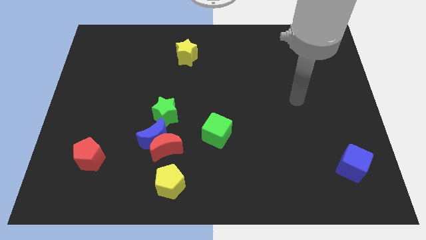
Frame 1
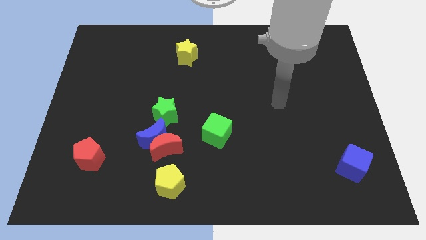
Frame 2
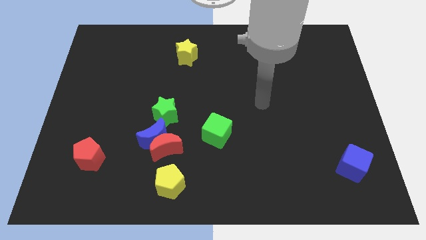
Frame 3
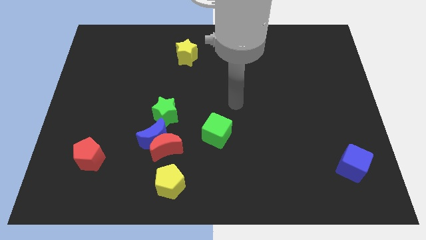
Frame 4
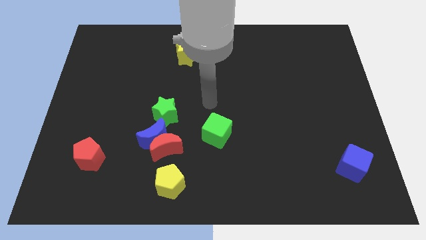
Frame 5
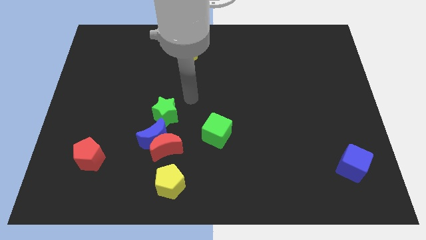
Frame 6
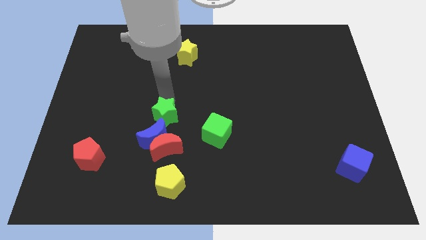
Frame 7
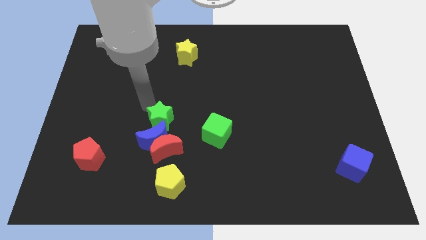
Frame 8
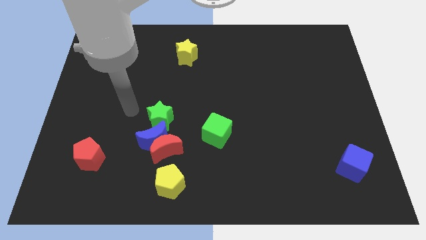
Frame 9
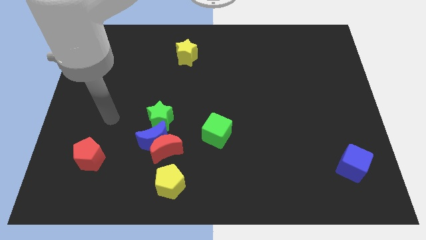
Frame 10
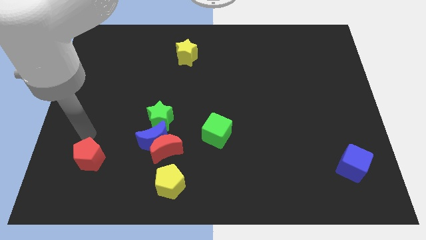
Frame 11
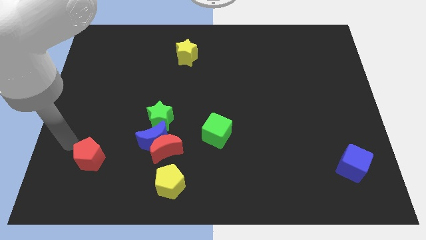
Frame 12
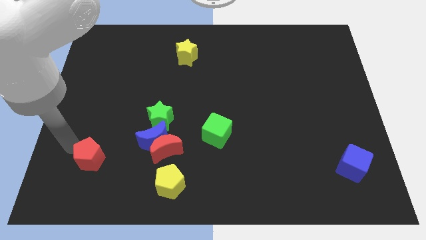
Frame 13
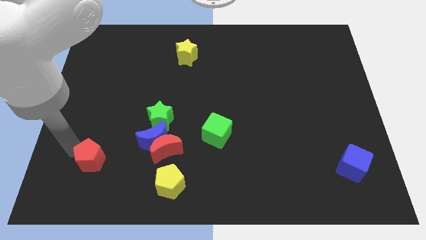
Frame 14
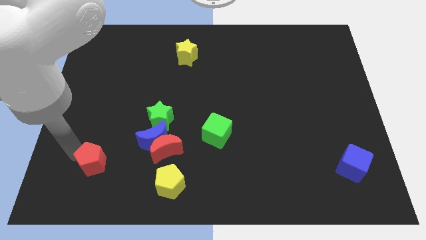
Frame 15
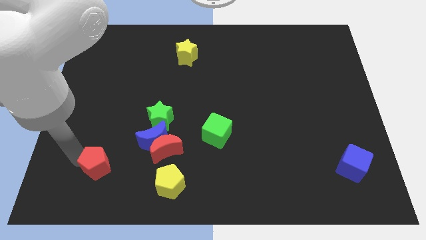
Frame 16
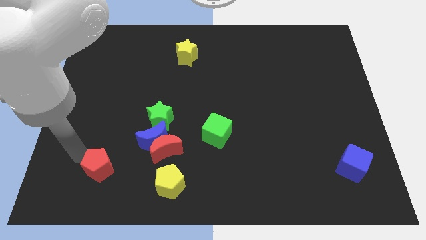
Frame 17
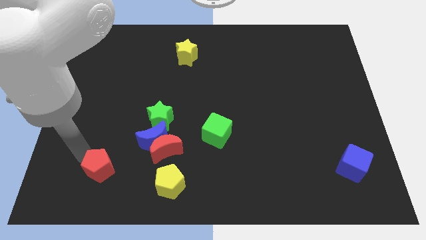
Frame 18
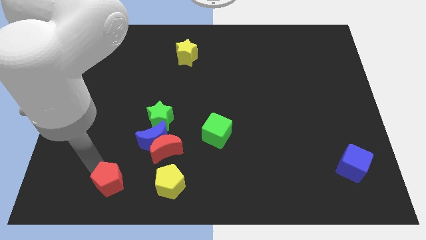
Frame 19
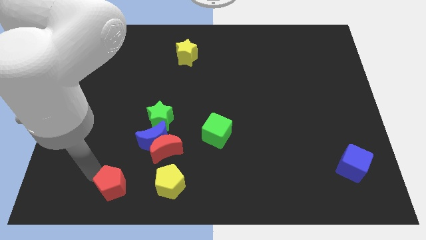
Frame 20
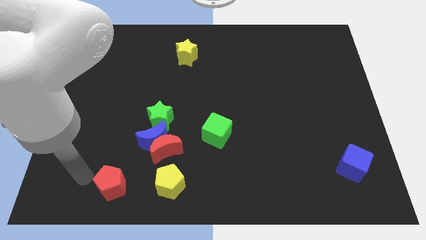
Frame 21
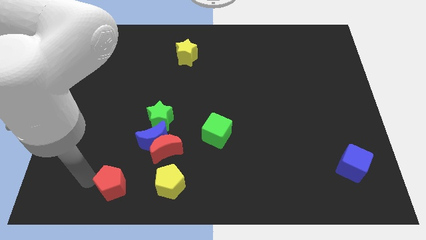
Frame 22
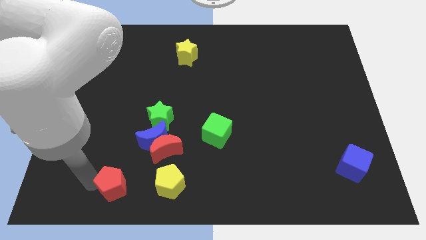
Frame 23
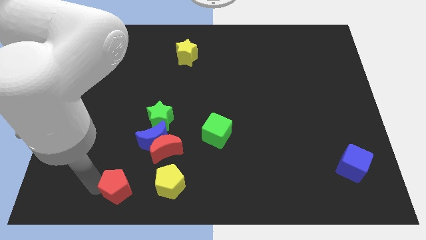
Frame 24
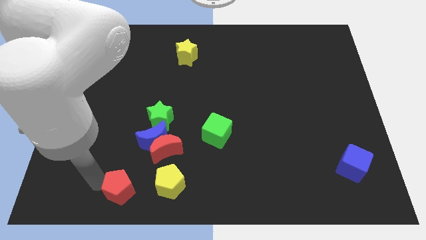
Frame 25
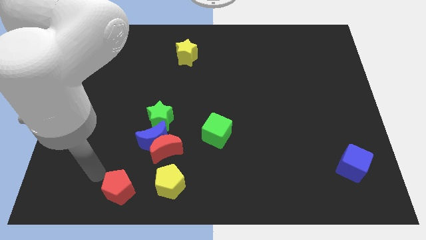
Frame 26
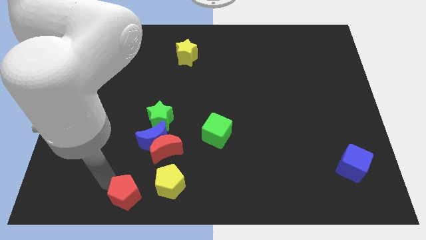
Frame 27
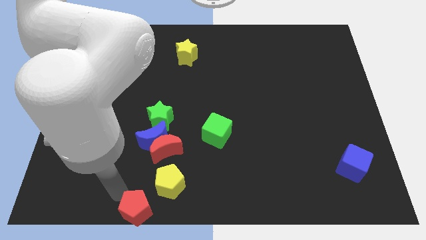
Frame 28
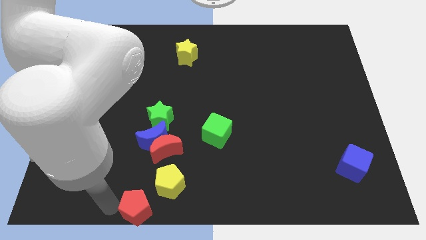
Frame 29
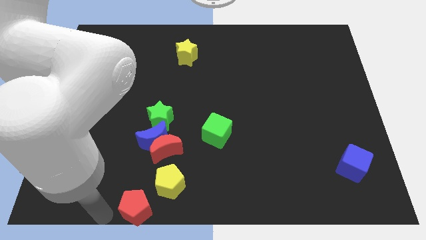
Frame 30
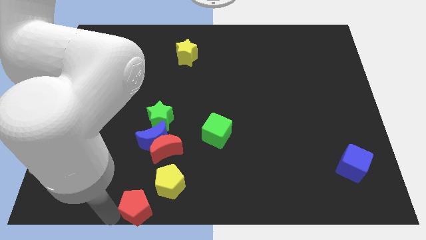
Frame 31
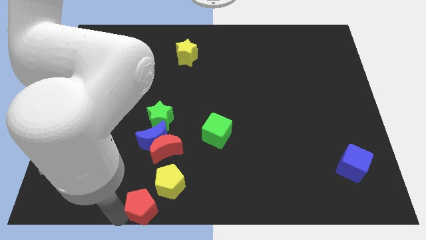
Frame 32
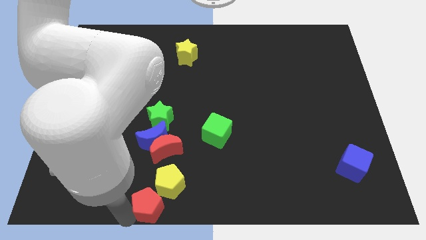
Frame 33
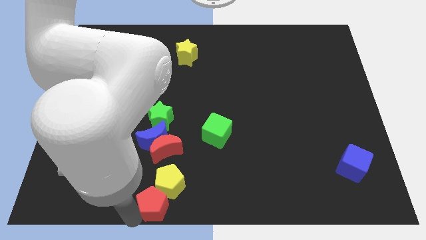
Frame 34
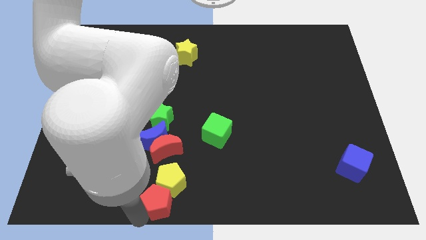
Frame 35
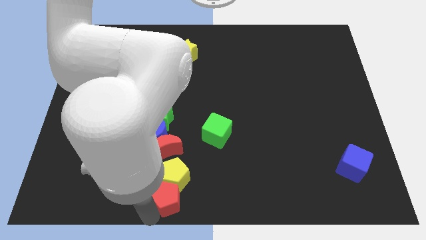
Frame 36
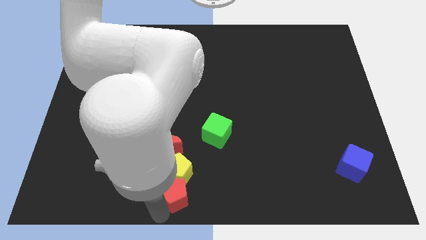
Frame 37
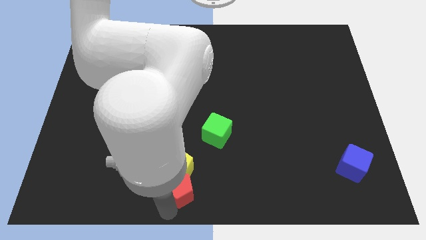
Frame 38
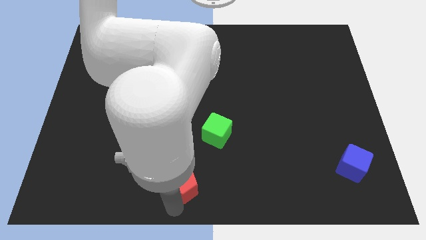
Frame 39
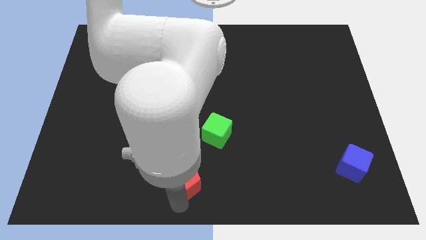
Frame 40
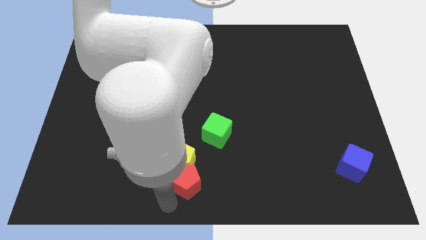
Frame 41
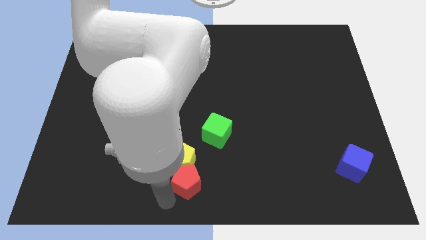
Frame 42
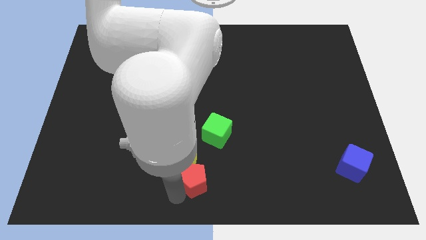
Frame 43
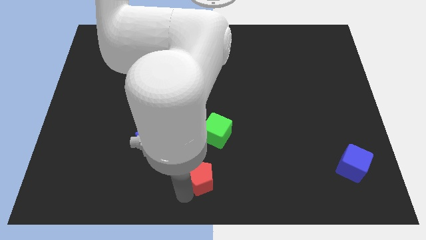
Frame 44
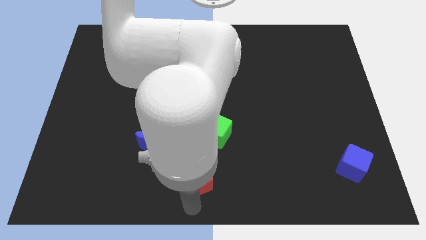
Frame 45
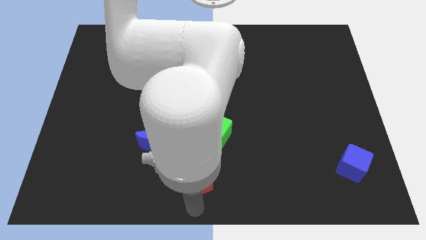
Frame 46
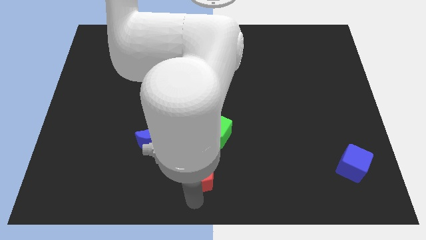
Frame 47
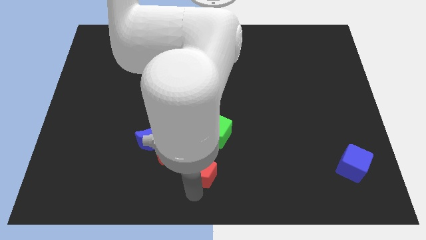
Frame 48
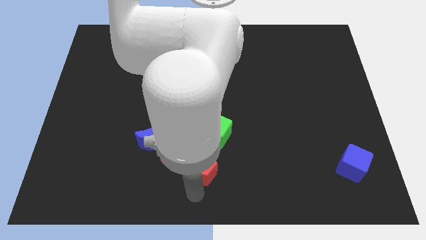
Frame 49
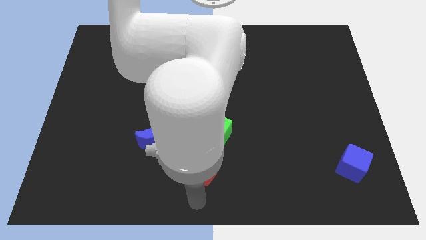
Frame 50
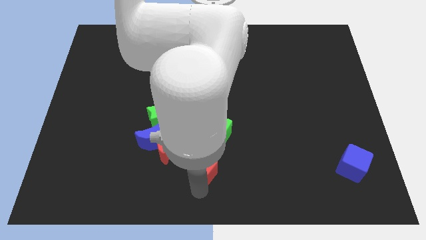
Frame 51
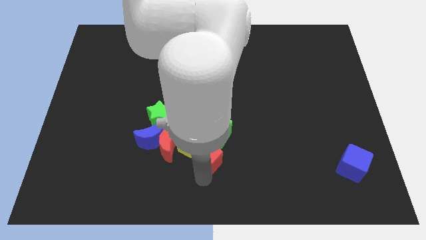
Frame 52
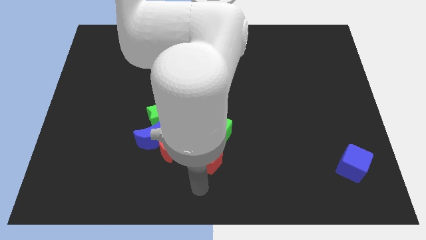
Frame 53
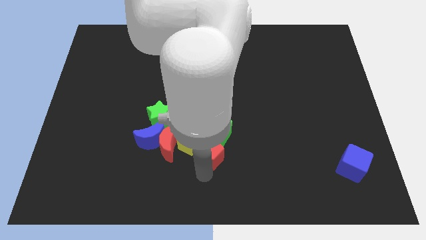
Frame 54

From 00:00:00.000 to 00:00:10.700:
move the red pentagon close to the green cube
